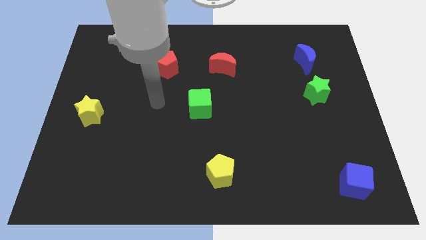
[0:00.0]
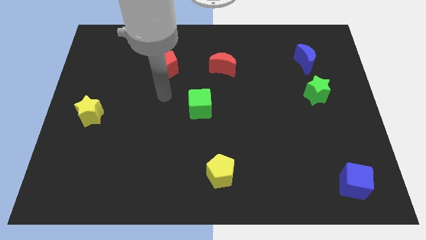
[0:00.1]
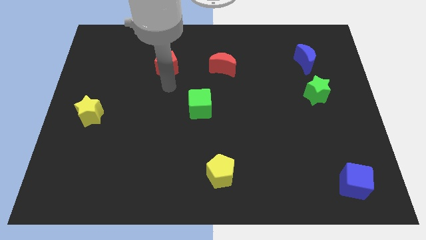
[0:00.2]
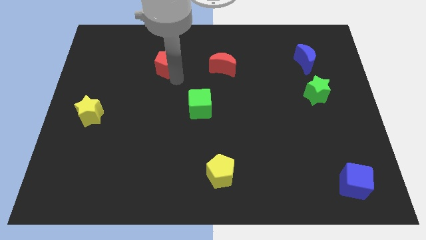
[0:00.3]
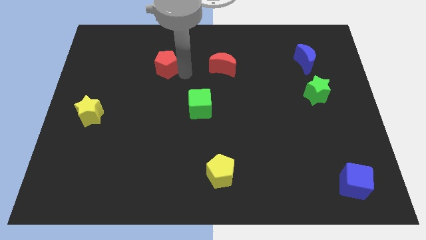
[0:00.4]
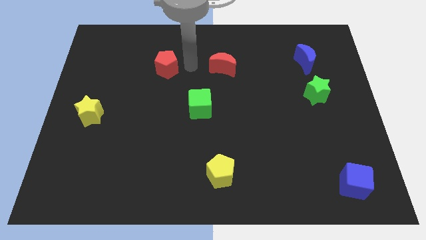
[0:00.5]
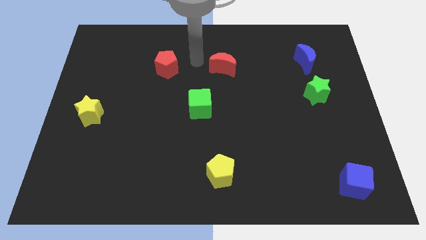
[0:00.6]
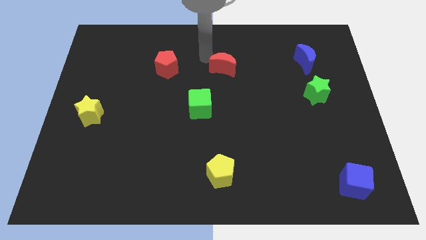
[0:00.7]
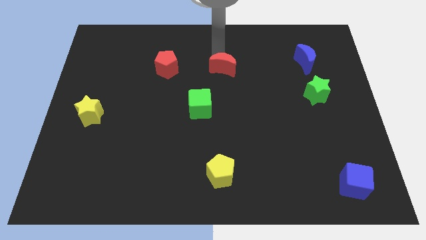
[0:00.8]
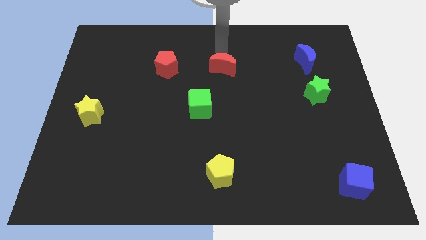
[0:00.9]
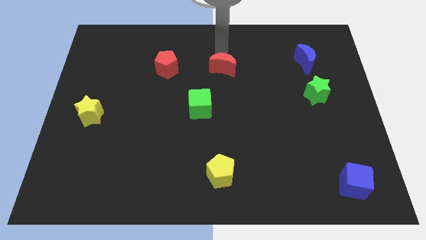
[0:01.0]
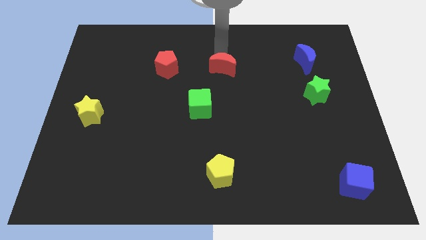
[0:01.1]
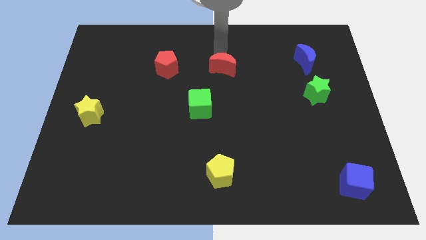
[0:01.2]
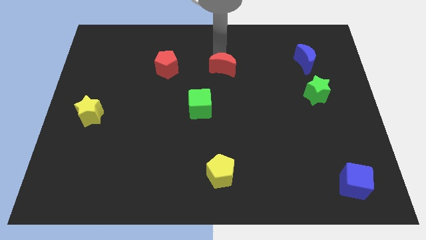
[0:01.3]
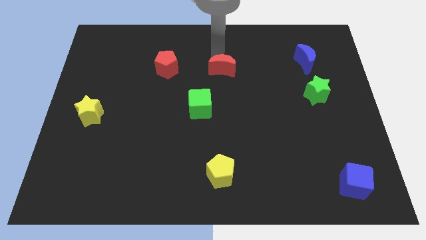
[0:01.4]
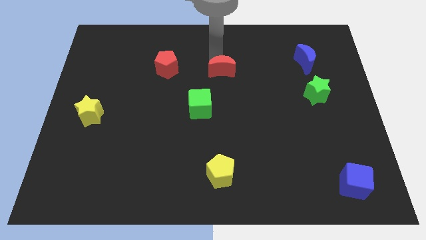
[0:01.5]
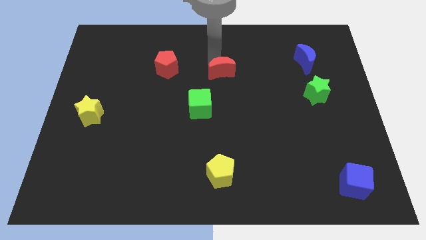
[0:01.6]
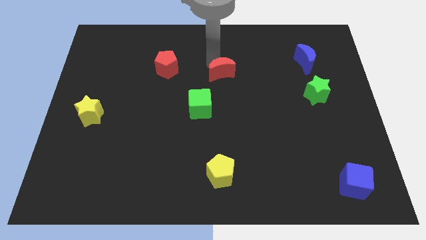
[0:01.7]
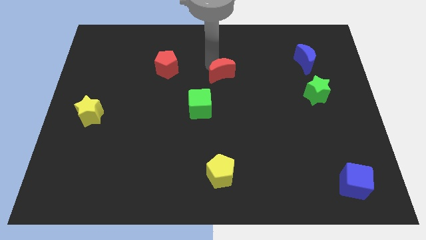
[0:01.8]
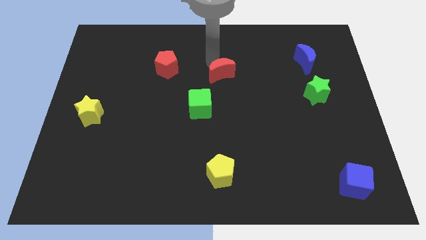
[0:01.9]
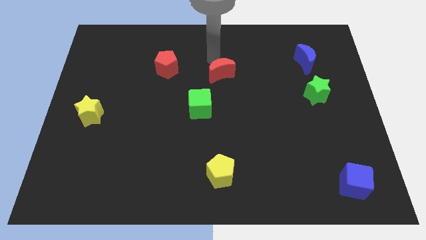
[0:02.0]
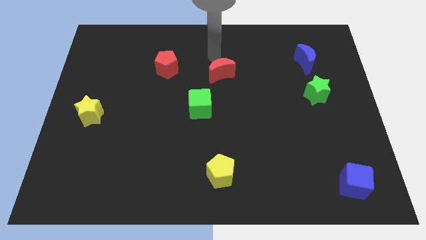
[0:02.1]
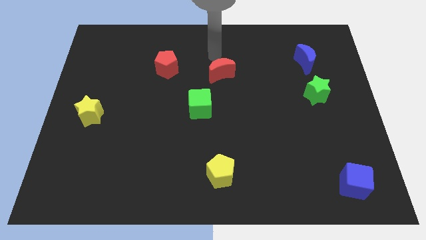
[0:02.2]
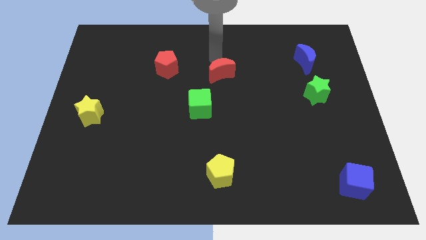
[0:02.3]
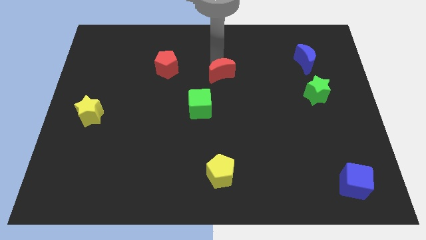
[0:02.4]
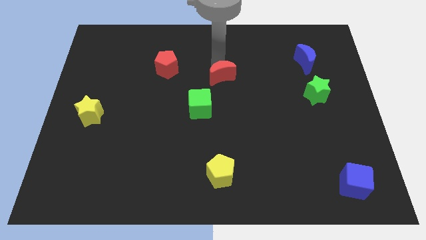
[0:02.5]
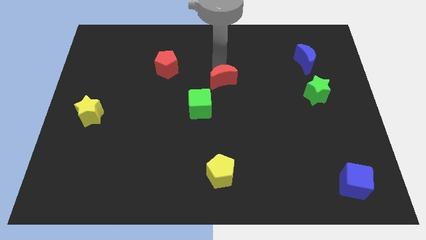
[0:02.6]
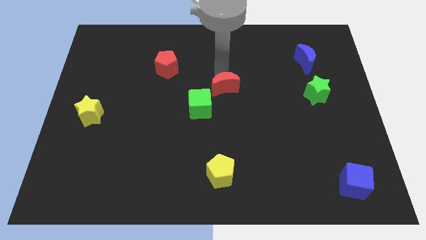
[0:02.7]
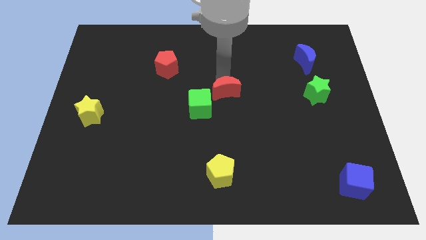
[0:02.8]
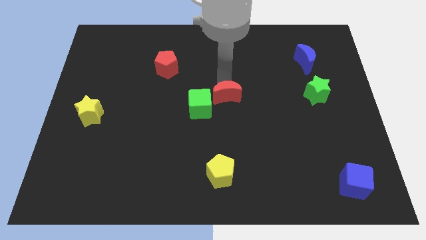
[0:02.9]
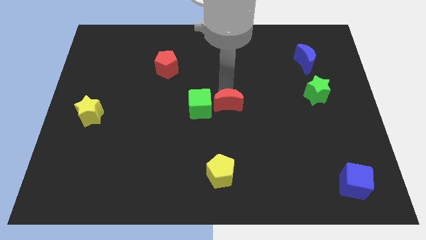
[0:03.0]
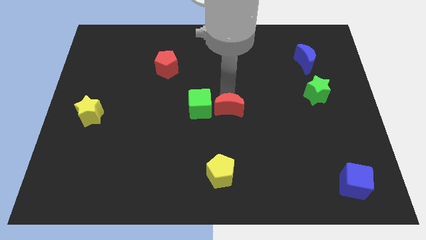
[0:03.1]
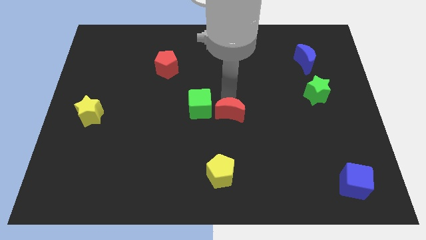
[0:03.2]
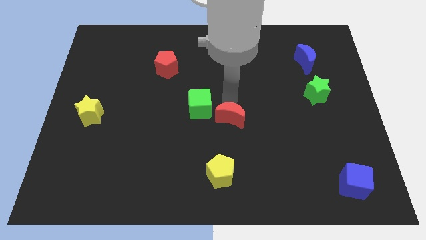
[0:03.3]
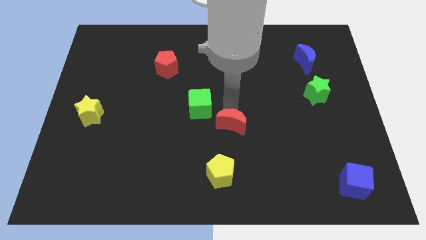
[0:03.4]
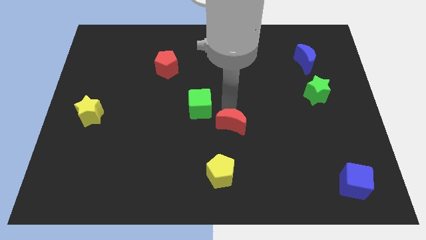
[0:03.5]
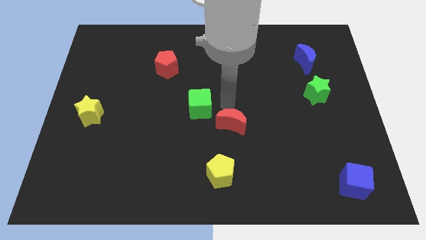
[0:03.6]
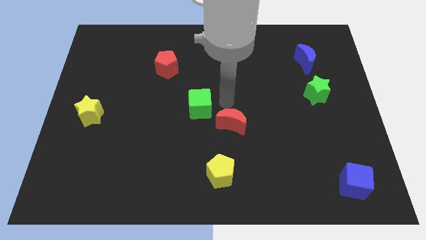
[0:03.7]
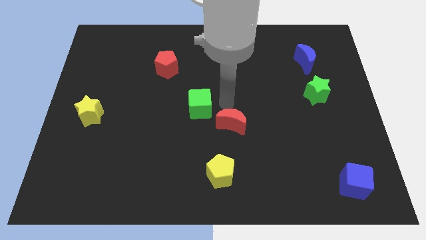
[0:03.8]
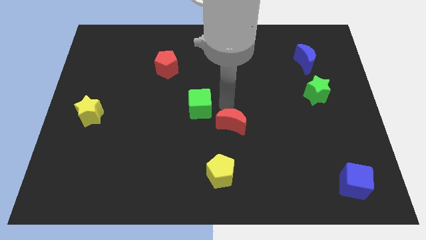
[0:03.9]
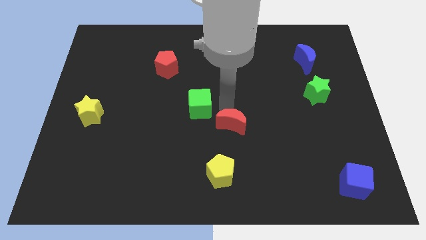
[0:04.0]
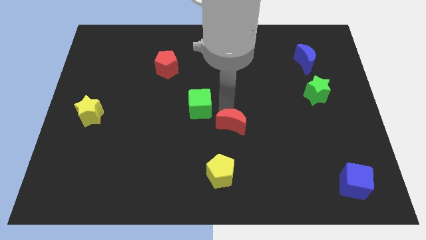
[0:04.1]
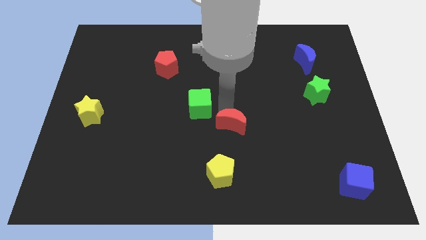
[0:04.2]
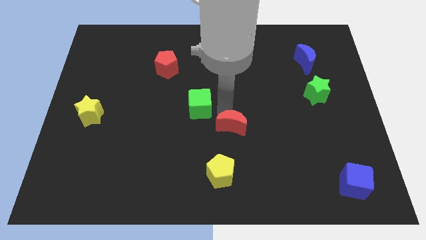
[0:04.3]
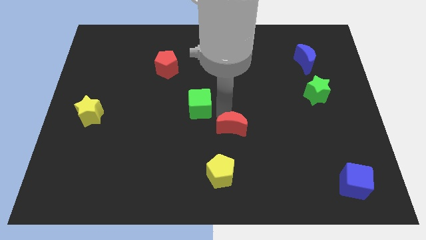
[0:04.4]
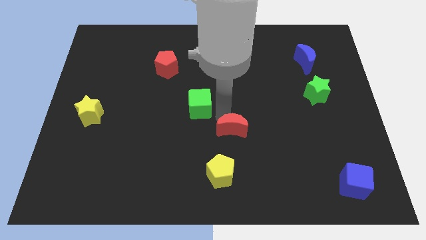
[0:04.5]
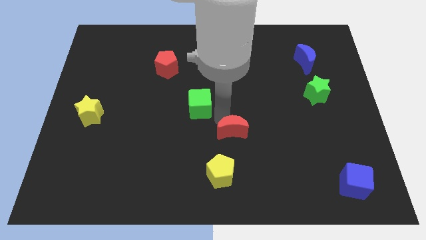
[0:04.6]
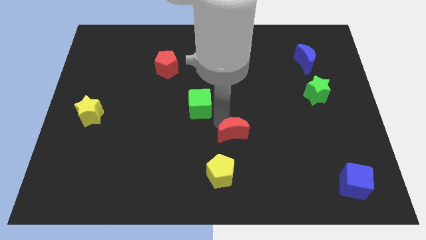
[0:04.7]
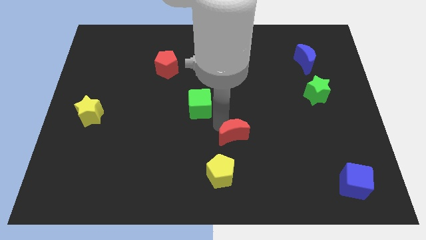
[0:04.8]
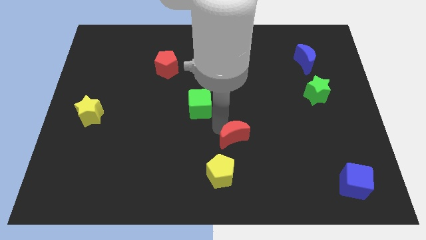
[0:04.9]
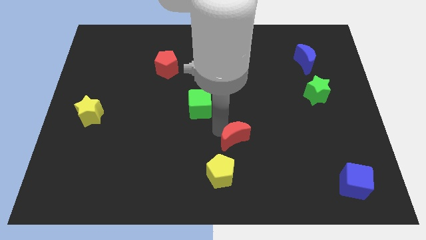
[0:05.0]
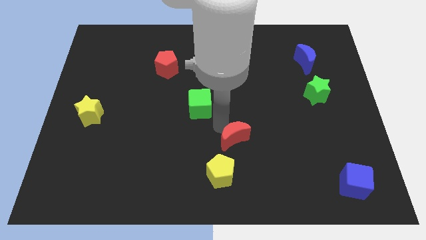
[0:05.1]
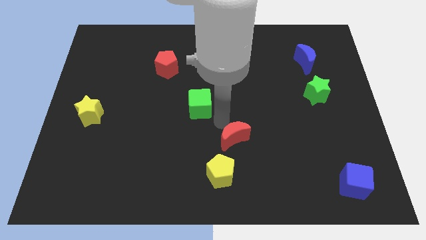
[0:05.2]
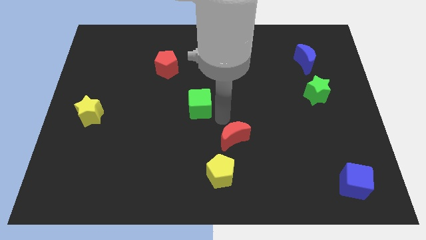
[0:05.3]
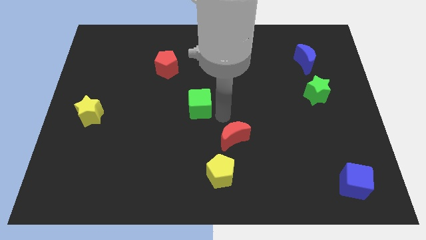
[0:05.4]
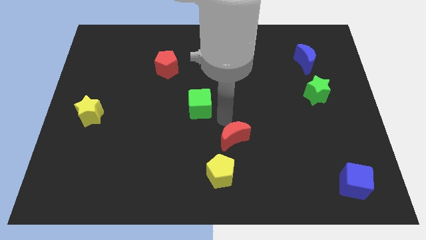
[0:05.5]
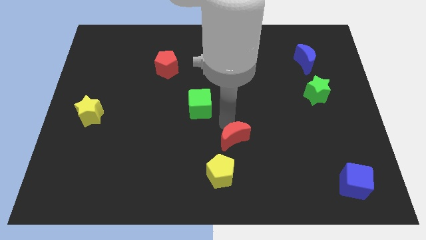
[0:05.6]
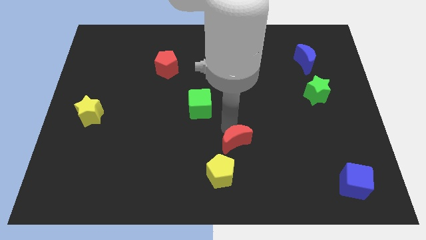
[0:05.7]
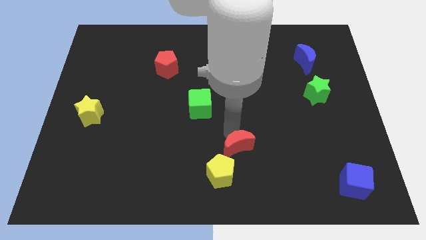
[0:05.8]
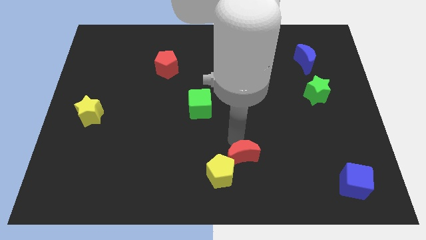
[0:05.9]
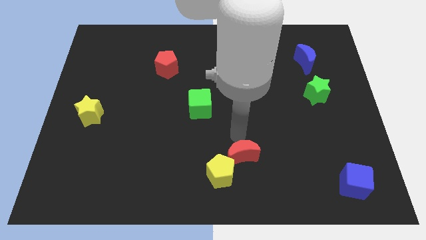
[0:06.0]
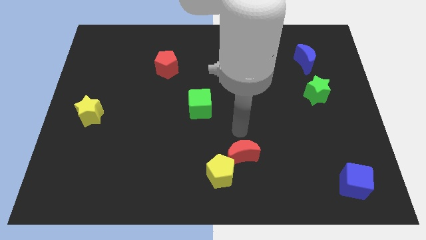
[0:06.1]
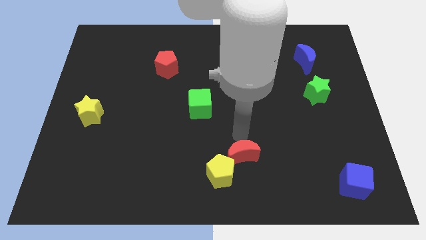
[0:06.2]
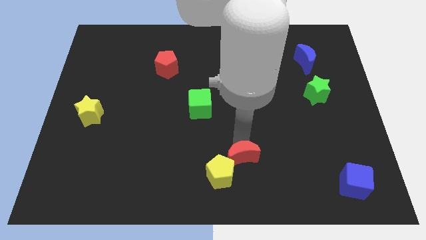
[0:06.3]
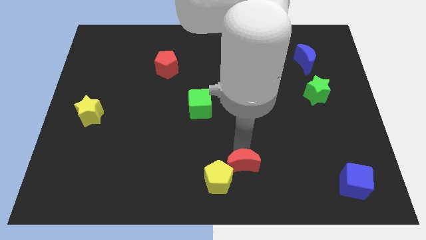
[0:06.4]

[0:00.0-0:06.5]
slide the red moon to the bottom

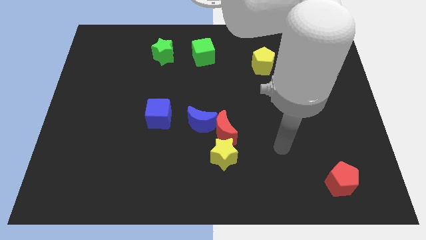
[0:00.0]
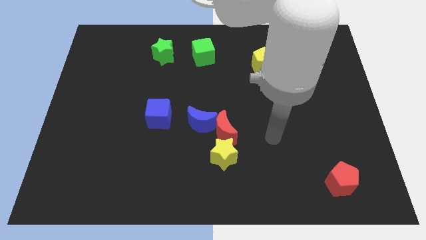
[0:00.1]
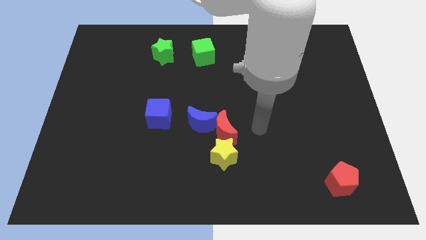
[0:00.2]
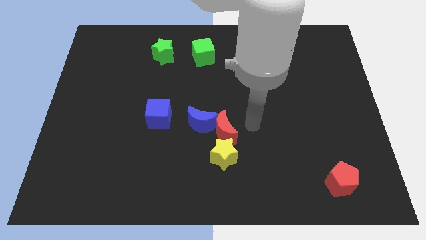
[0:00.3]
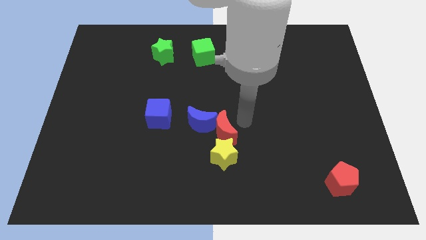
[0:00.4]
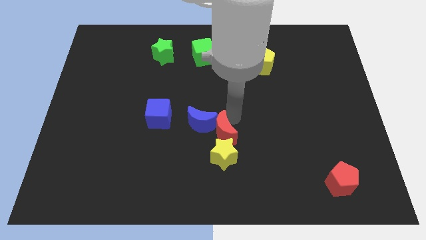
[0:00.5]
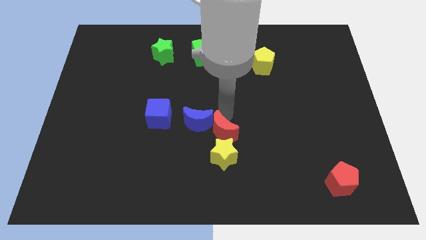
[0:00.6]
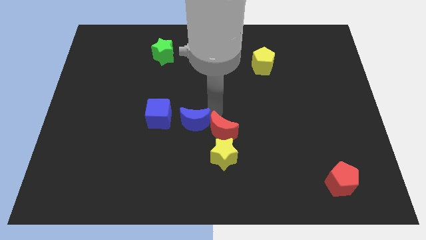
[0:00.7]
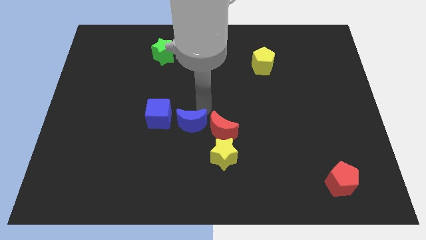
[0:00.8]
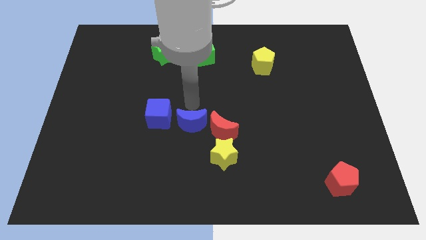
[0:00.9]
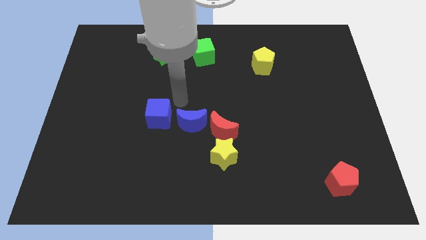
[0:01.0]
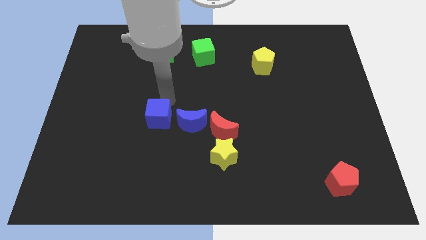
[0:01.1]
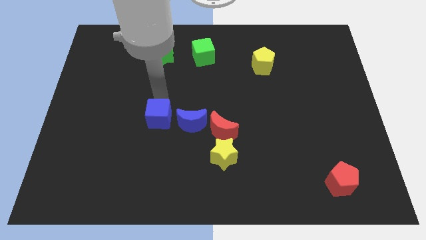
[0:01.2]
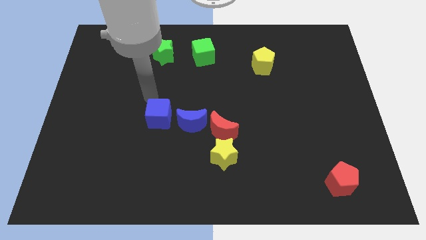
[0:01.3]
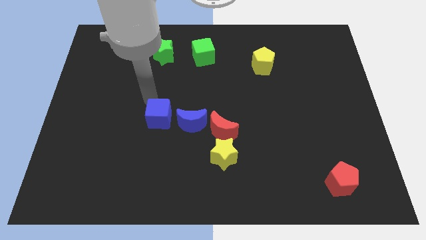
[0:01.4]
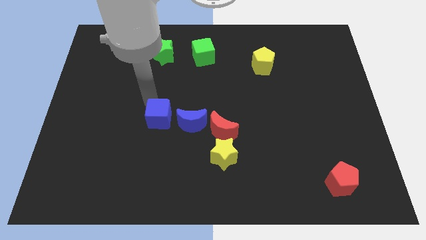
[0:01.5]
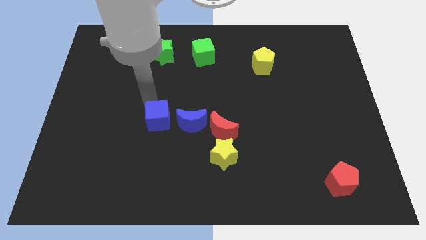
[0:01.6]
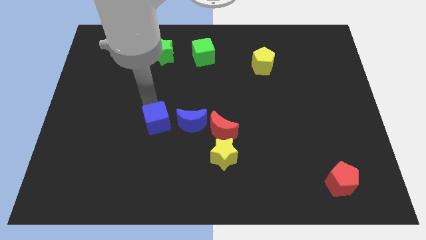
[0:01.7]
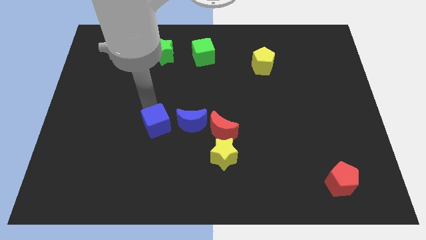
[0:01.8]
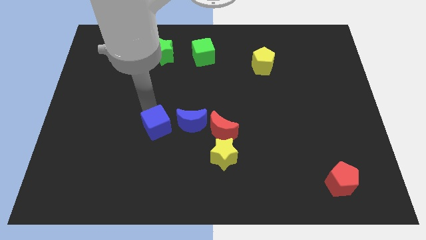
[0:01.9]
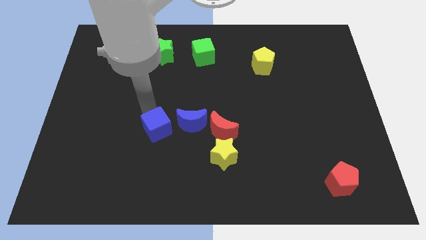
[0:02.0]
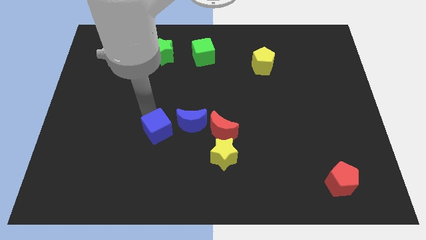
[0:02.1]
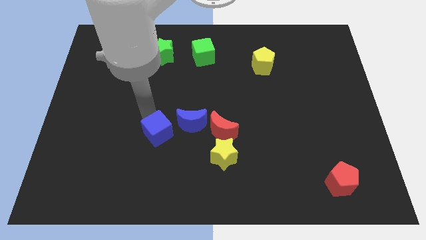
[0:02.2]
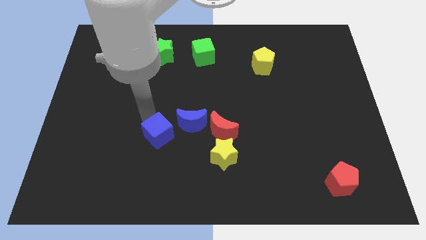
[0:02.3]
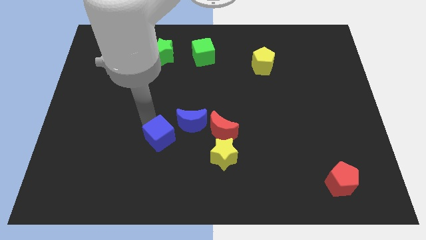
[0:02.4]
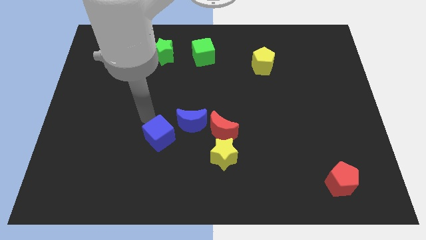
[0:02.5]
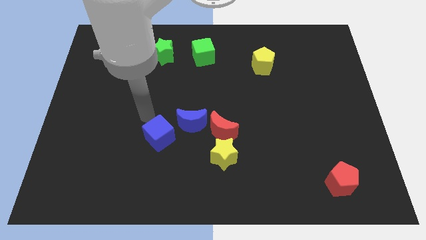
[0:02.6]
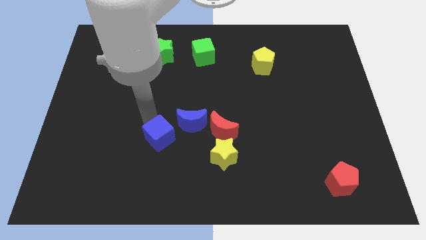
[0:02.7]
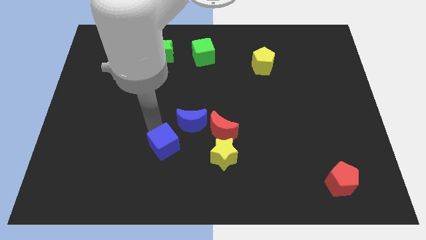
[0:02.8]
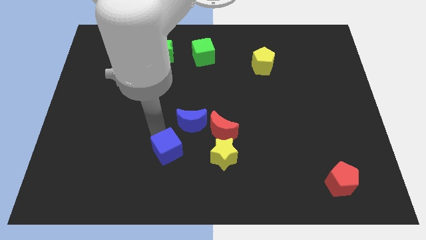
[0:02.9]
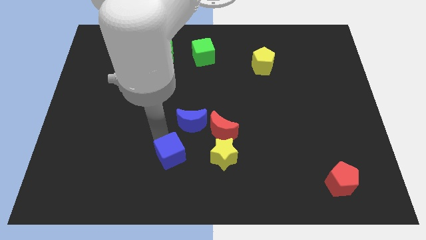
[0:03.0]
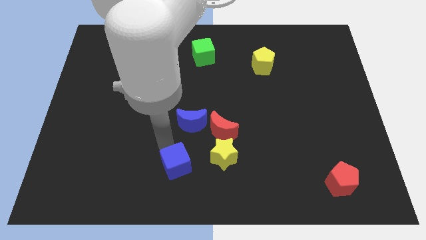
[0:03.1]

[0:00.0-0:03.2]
move the blue cube to the bottom side
